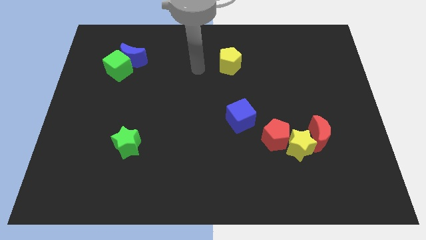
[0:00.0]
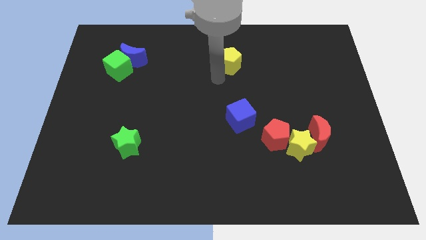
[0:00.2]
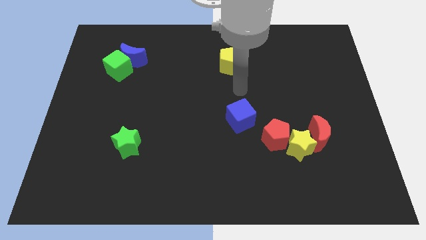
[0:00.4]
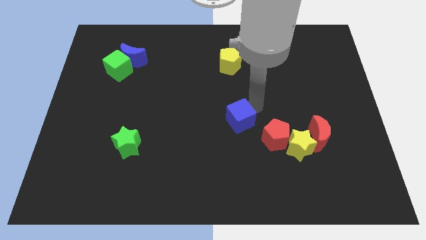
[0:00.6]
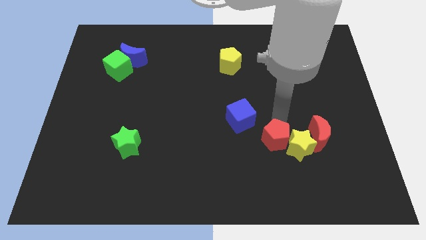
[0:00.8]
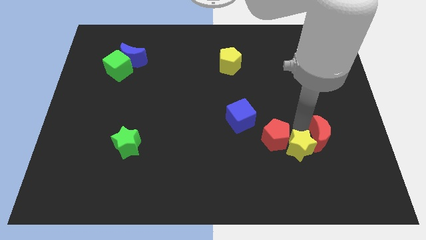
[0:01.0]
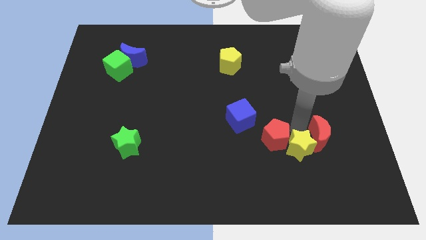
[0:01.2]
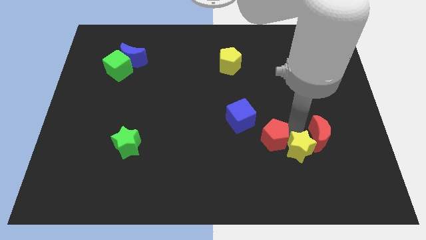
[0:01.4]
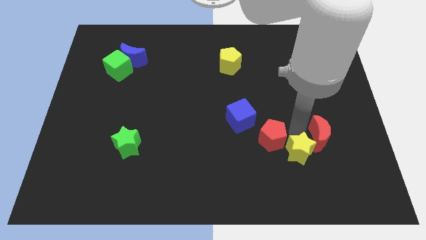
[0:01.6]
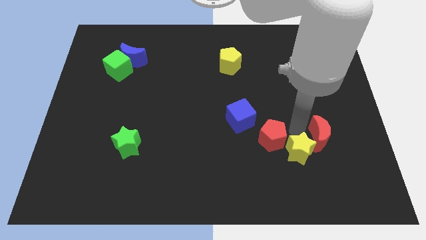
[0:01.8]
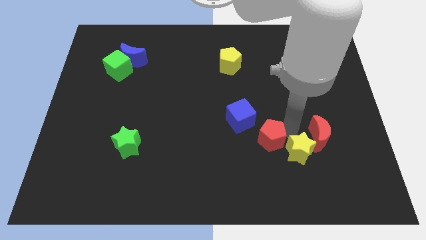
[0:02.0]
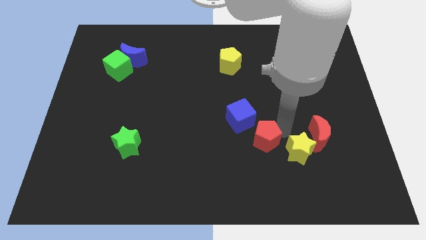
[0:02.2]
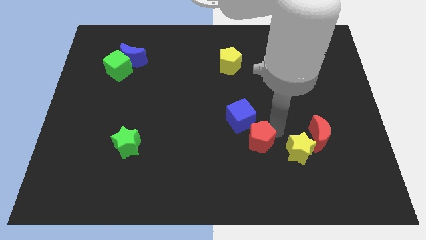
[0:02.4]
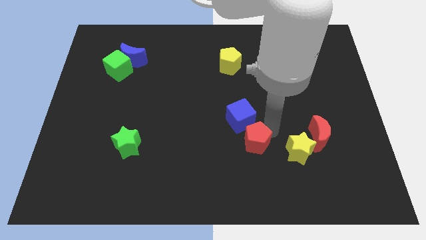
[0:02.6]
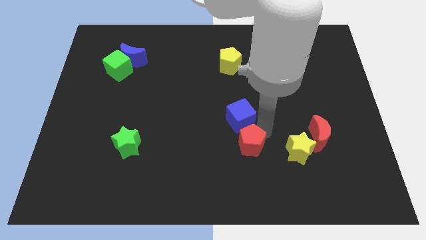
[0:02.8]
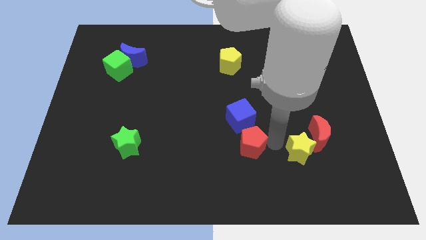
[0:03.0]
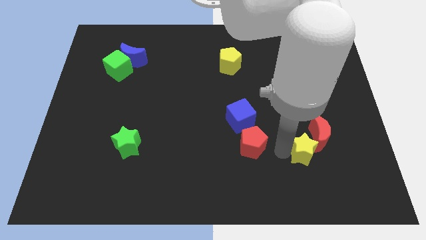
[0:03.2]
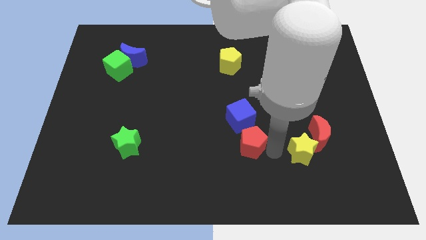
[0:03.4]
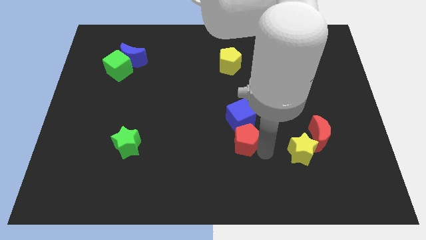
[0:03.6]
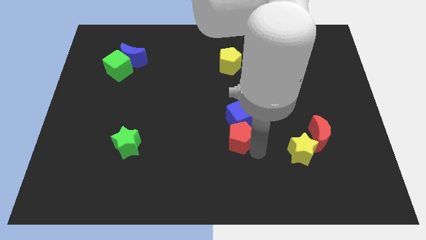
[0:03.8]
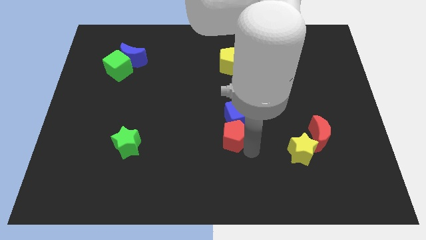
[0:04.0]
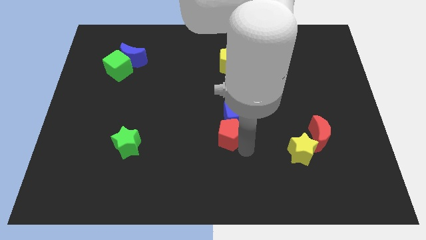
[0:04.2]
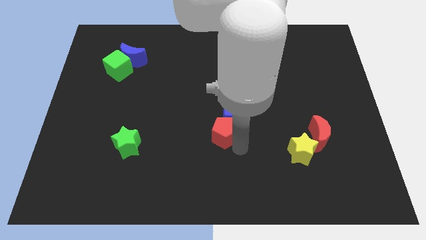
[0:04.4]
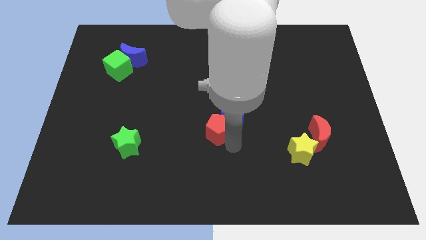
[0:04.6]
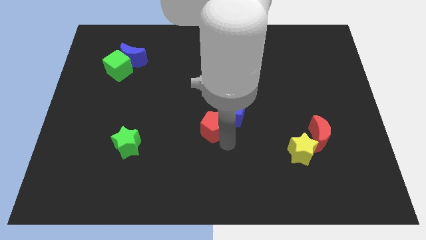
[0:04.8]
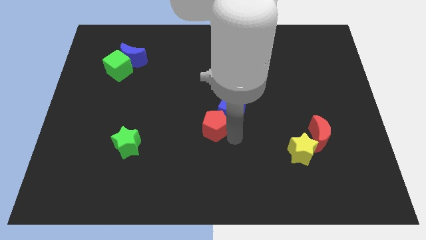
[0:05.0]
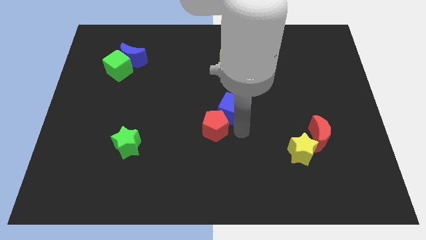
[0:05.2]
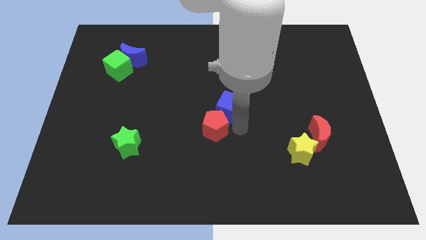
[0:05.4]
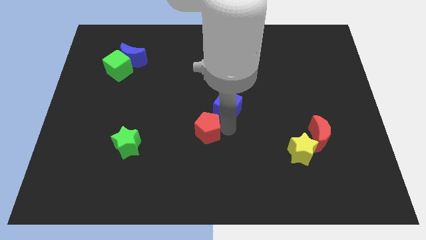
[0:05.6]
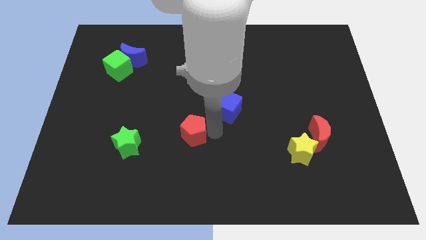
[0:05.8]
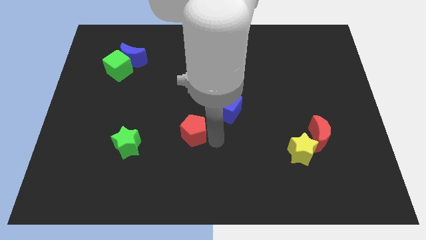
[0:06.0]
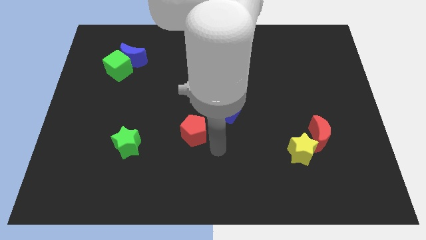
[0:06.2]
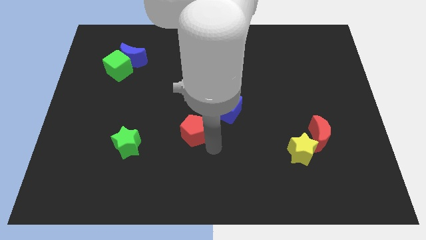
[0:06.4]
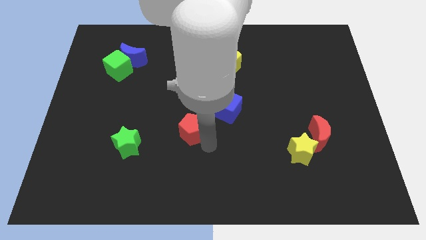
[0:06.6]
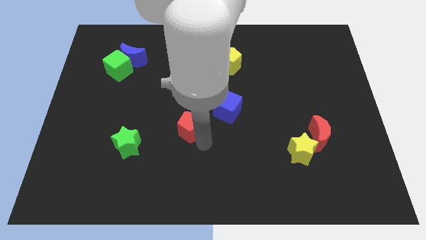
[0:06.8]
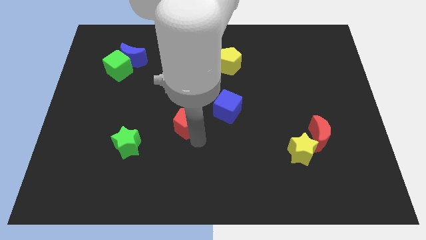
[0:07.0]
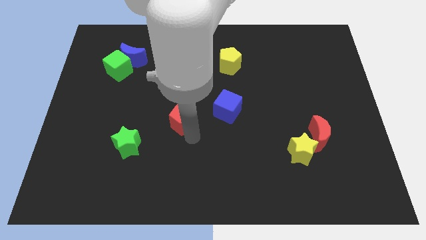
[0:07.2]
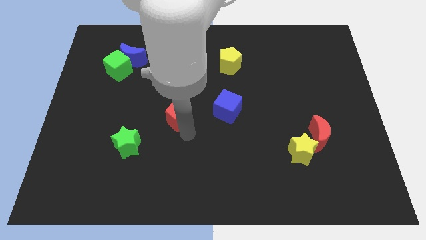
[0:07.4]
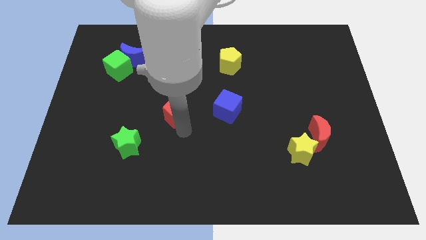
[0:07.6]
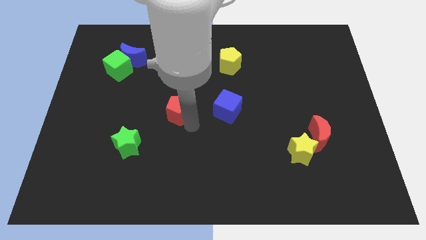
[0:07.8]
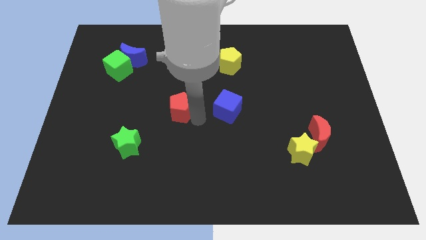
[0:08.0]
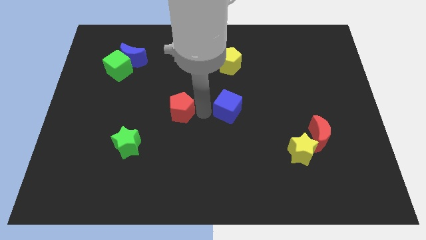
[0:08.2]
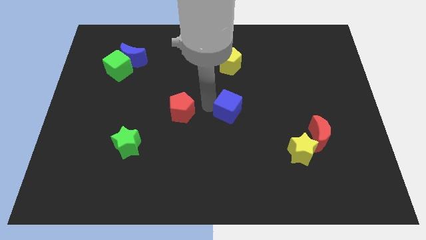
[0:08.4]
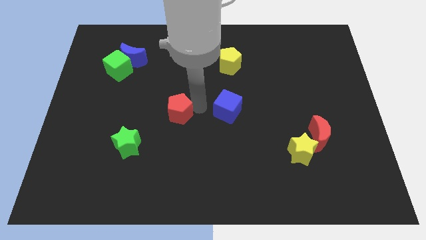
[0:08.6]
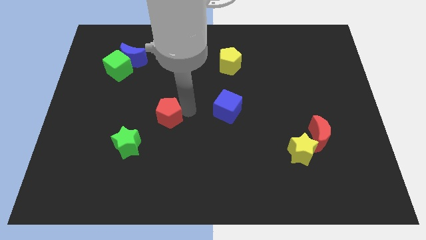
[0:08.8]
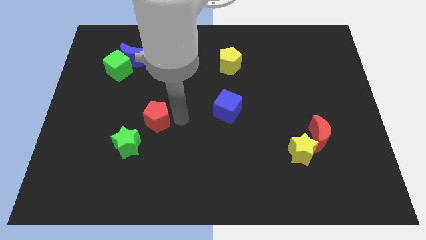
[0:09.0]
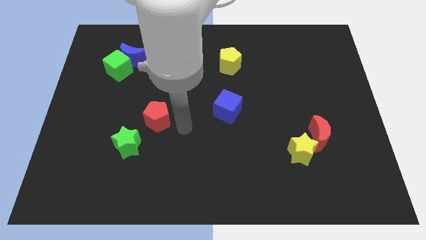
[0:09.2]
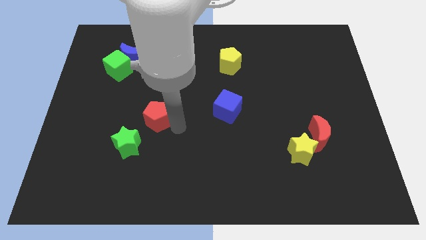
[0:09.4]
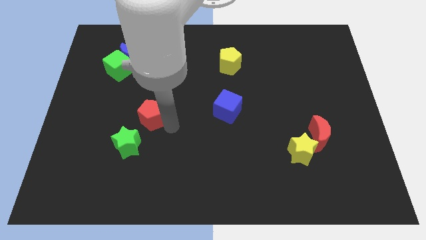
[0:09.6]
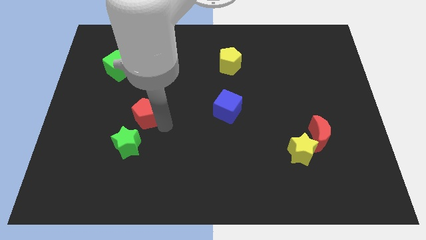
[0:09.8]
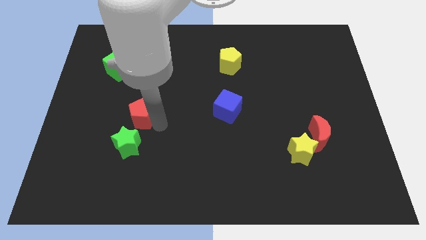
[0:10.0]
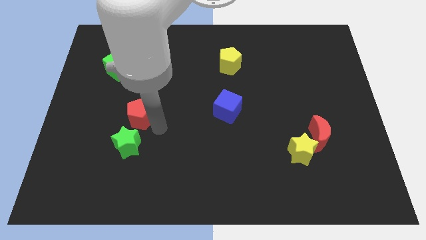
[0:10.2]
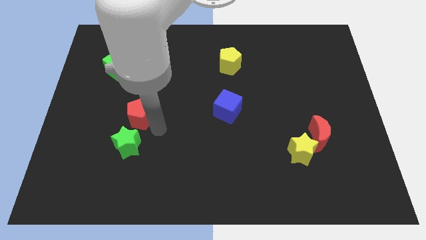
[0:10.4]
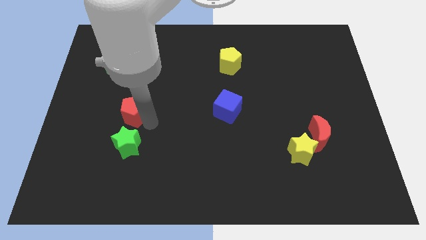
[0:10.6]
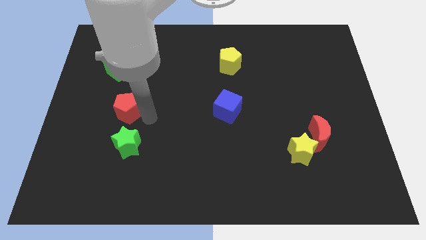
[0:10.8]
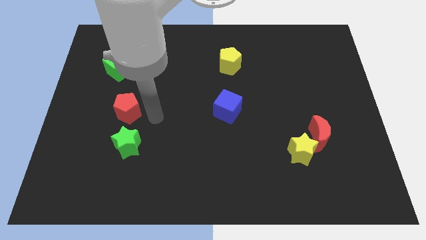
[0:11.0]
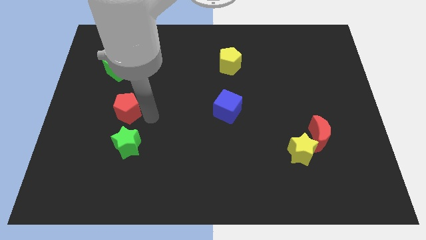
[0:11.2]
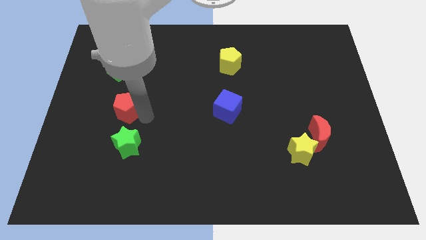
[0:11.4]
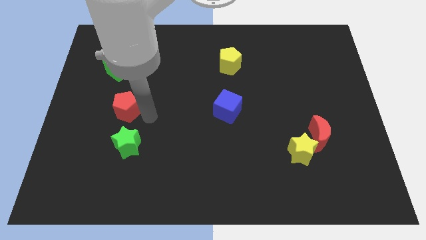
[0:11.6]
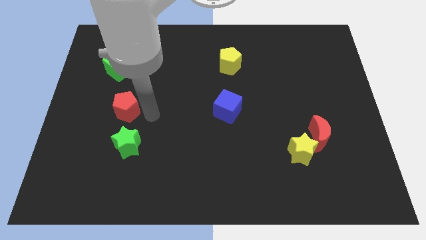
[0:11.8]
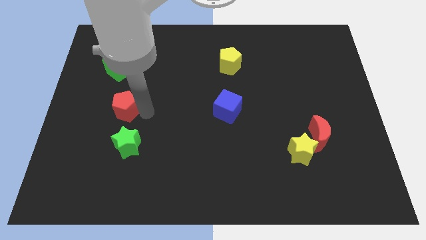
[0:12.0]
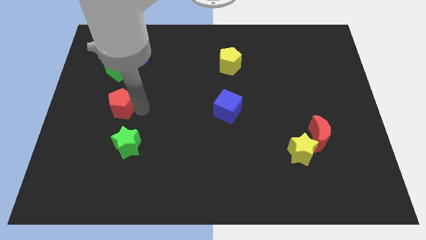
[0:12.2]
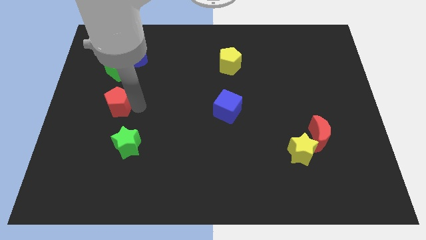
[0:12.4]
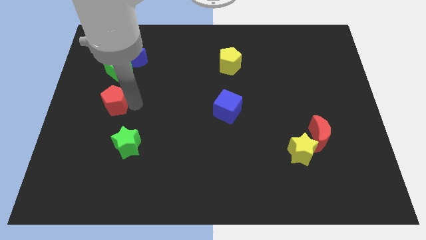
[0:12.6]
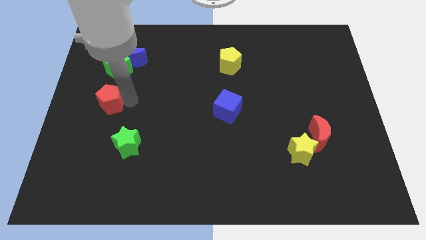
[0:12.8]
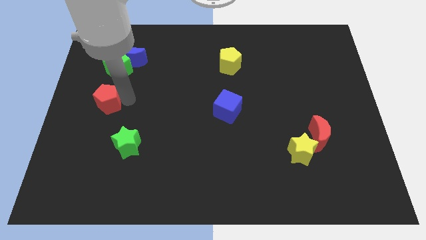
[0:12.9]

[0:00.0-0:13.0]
slide the red pentagon to the center left

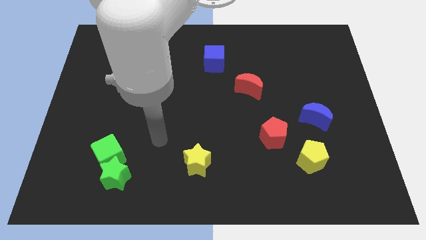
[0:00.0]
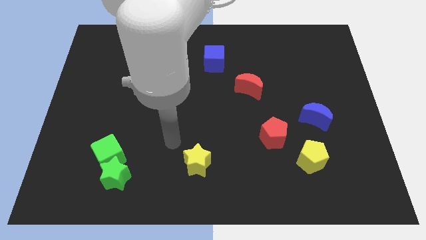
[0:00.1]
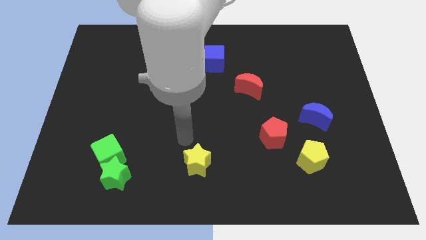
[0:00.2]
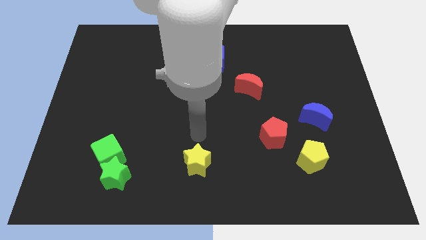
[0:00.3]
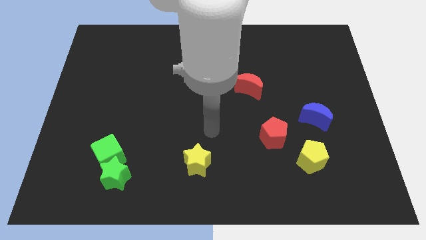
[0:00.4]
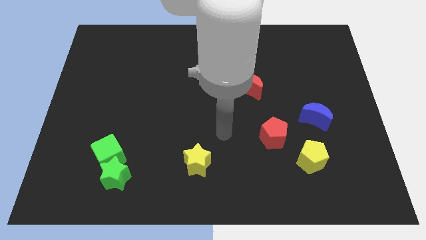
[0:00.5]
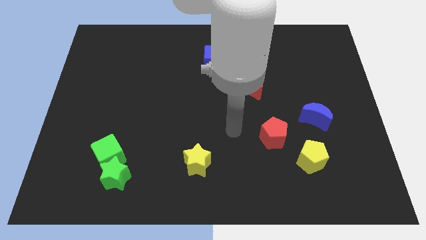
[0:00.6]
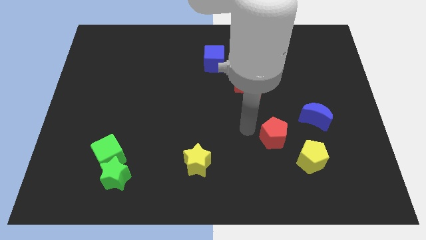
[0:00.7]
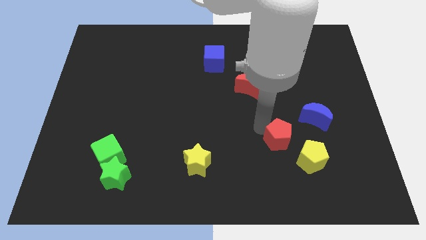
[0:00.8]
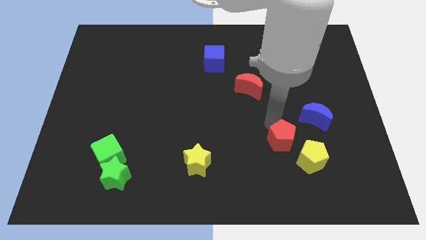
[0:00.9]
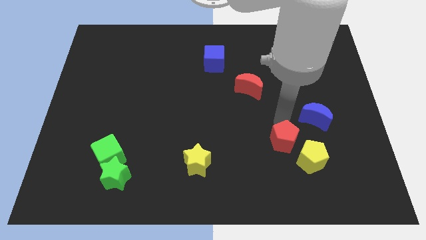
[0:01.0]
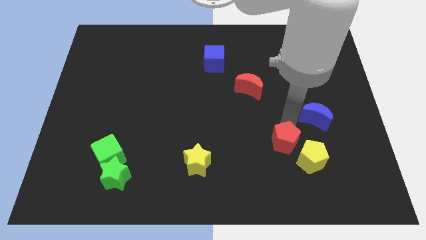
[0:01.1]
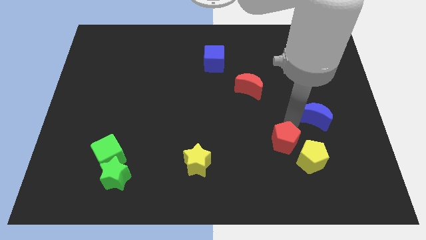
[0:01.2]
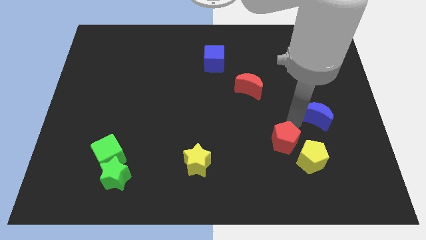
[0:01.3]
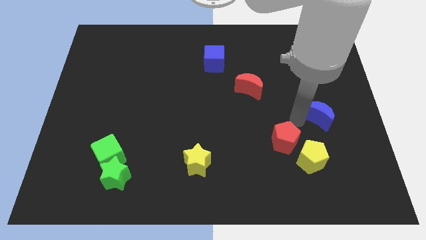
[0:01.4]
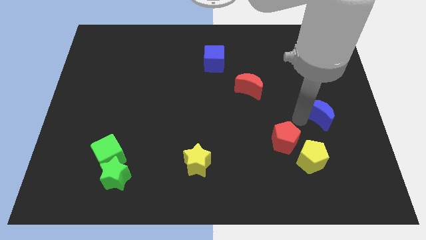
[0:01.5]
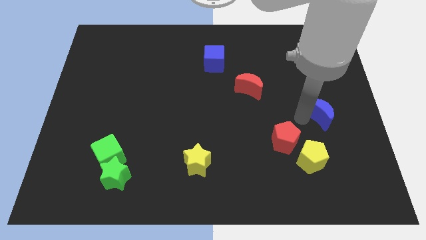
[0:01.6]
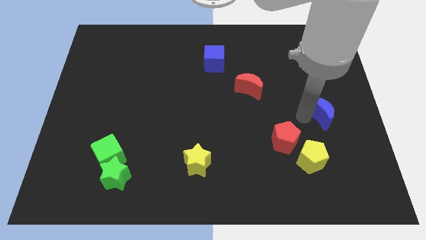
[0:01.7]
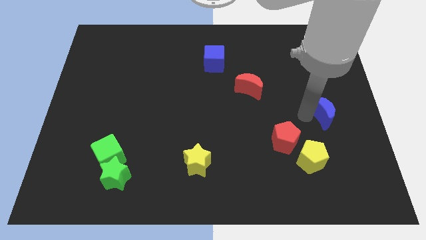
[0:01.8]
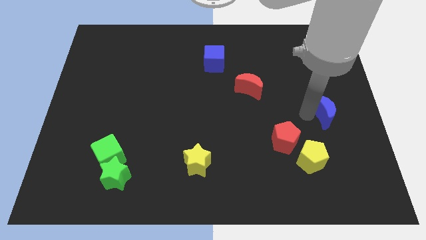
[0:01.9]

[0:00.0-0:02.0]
push the blue moon to the right side
